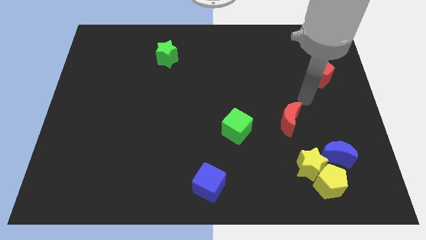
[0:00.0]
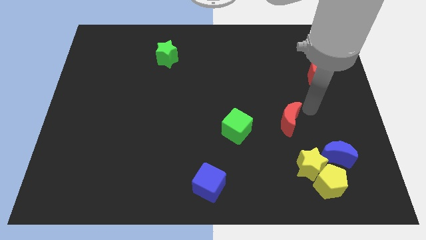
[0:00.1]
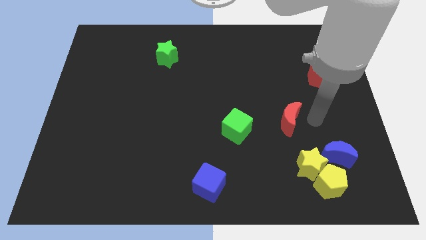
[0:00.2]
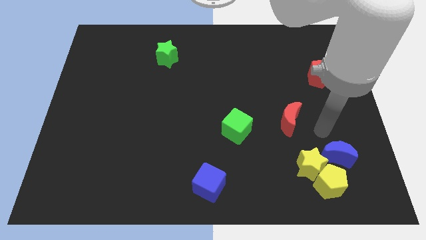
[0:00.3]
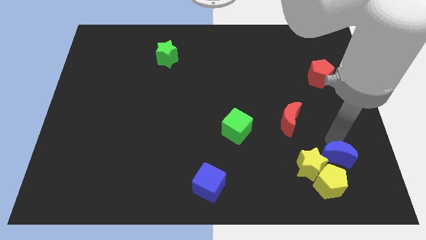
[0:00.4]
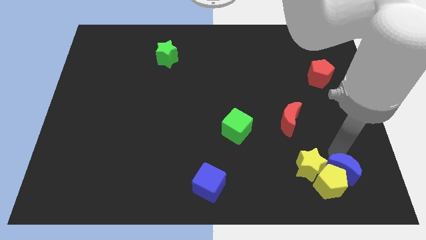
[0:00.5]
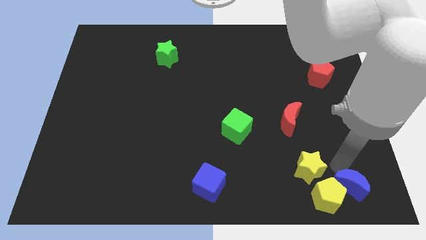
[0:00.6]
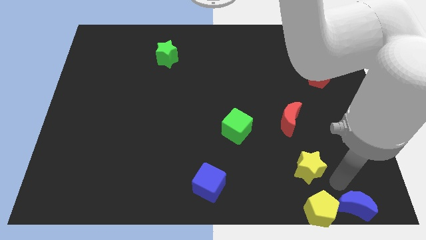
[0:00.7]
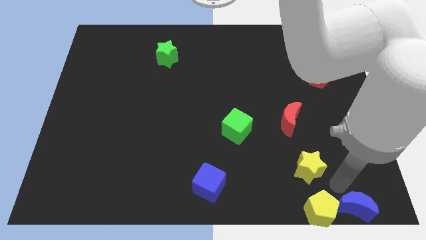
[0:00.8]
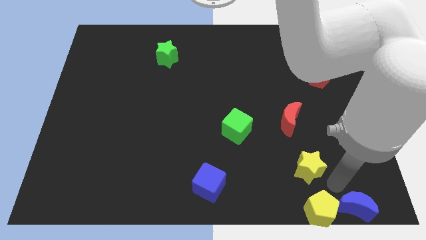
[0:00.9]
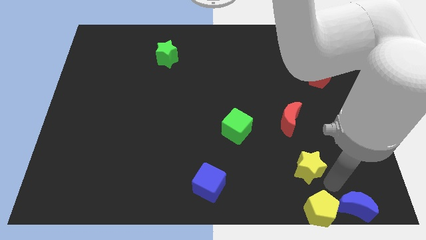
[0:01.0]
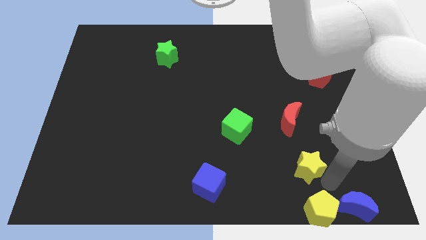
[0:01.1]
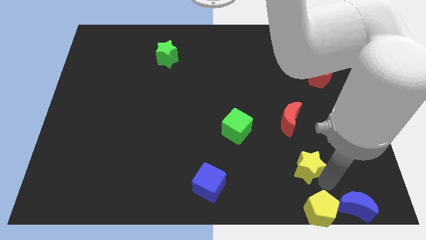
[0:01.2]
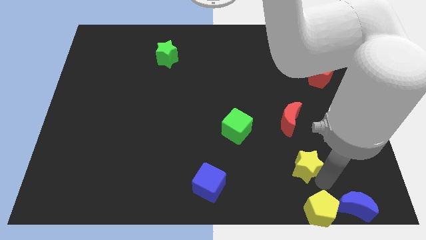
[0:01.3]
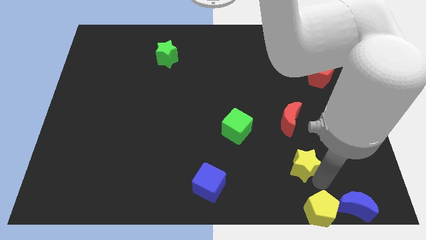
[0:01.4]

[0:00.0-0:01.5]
move the yellow star away from the yellow pentagon and blue moon

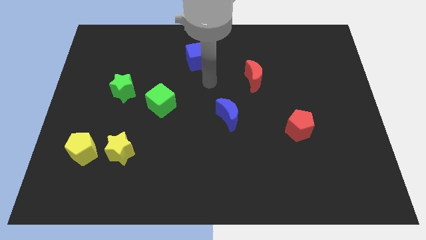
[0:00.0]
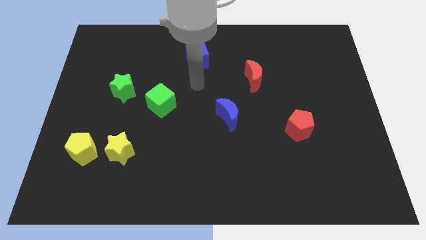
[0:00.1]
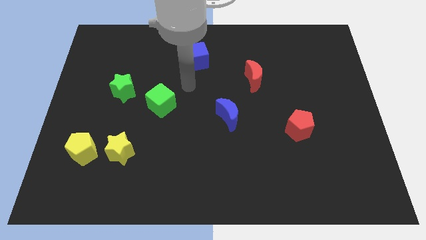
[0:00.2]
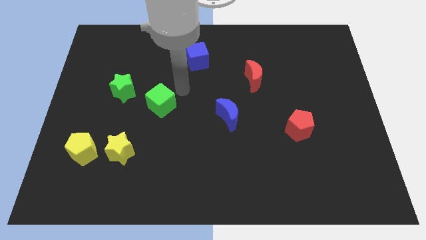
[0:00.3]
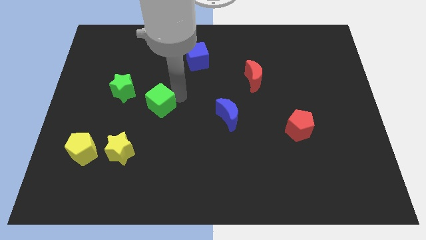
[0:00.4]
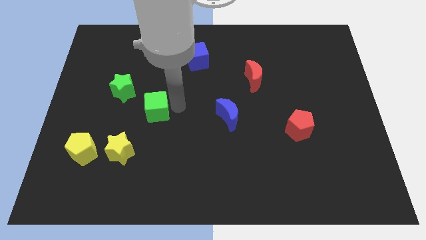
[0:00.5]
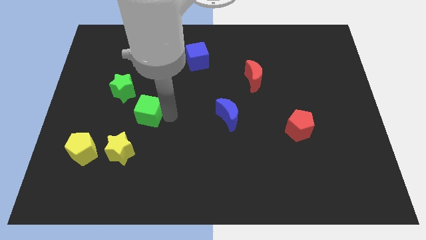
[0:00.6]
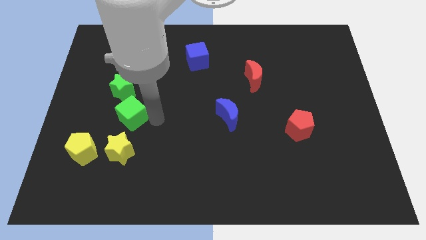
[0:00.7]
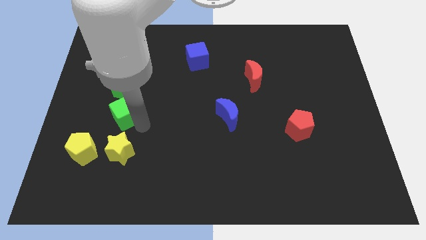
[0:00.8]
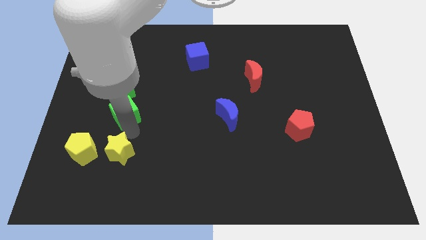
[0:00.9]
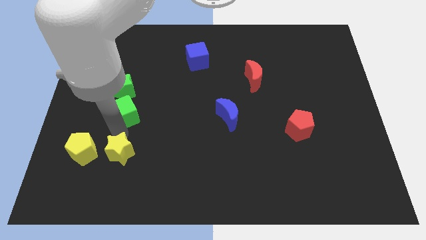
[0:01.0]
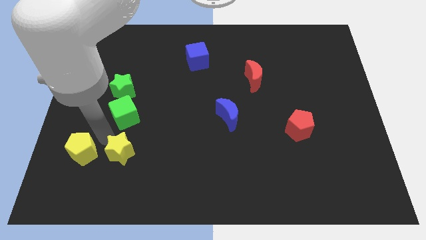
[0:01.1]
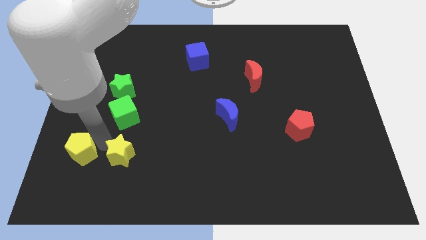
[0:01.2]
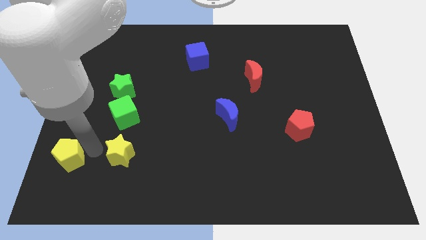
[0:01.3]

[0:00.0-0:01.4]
separate the yellow star from the yellow pentagon

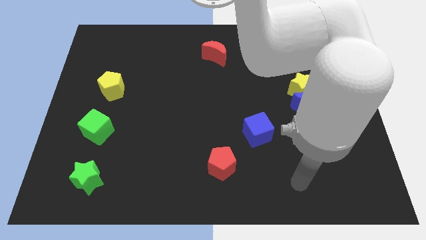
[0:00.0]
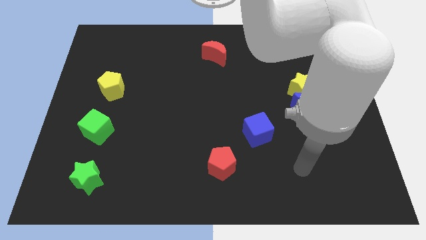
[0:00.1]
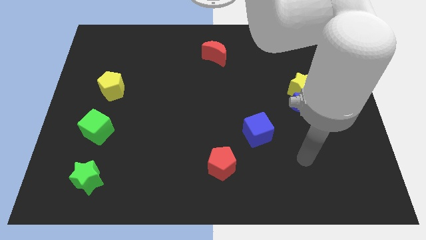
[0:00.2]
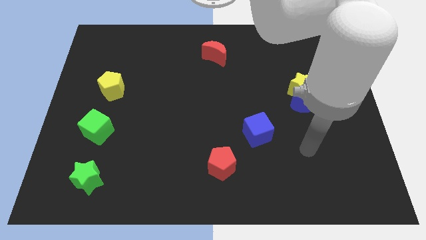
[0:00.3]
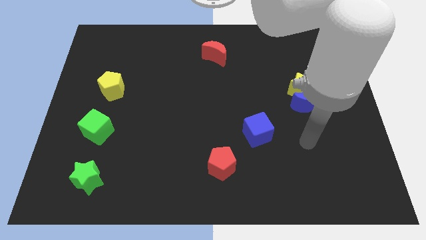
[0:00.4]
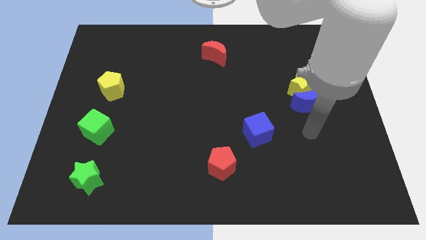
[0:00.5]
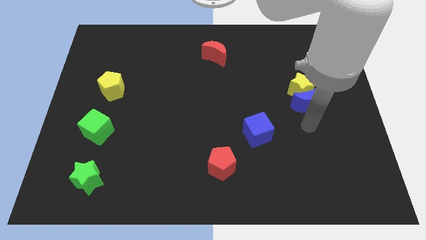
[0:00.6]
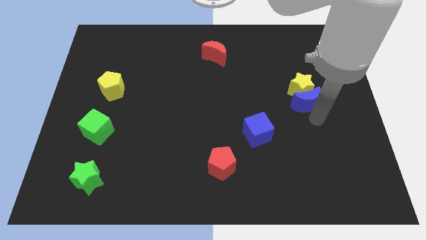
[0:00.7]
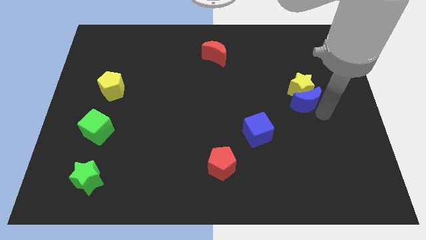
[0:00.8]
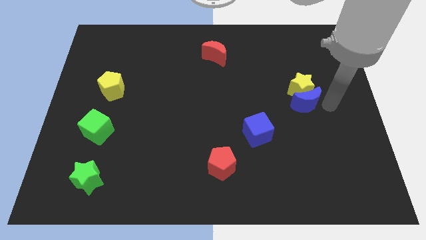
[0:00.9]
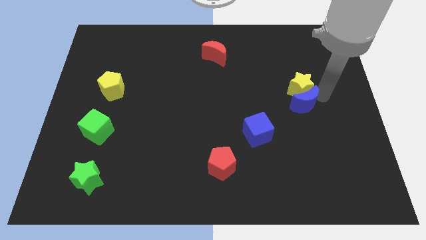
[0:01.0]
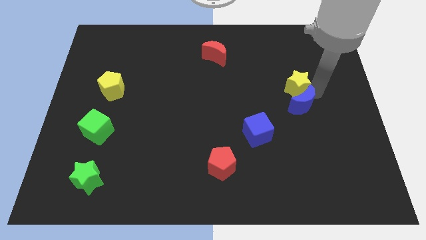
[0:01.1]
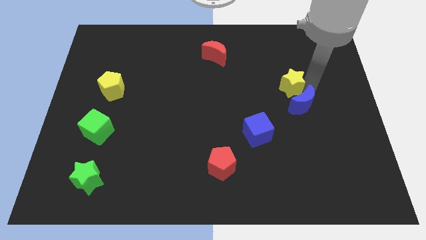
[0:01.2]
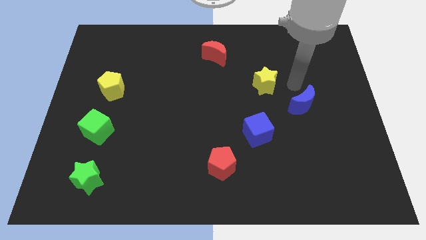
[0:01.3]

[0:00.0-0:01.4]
separate the blue moon from the yellow star

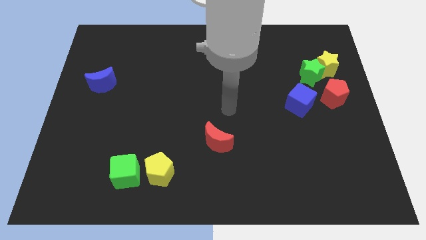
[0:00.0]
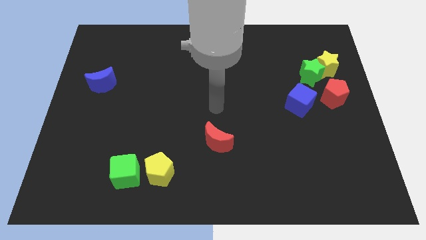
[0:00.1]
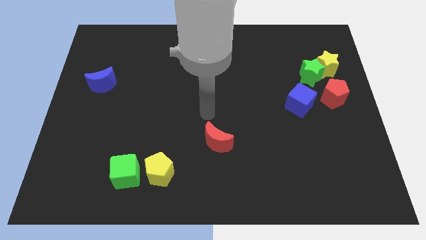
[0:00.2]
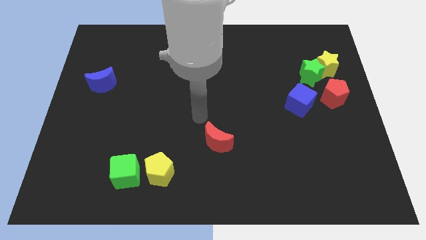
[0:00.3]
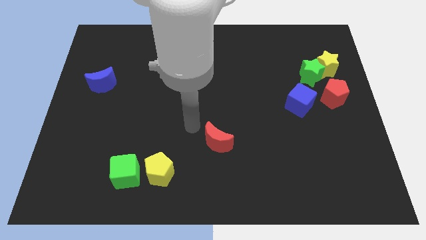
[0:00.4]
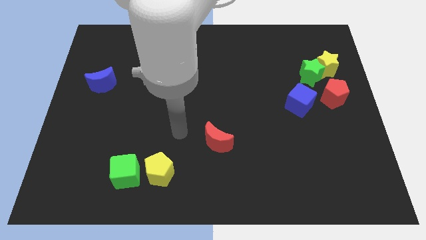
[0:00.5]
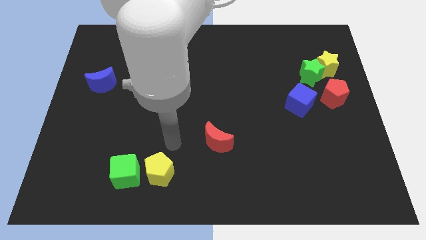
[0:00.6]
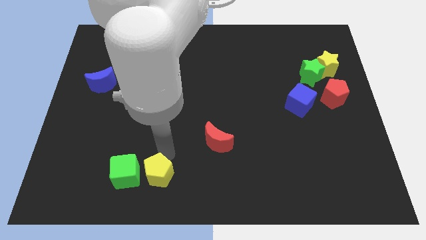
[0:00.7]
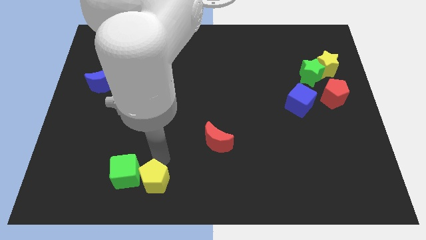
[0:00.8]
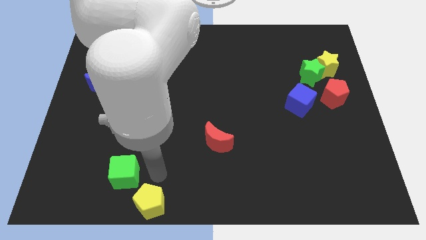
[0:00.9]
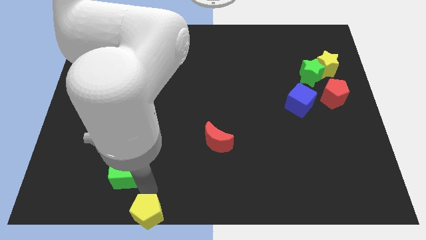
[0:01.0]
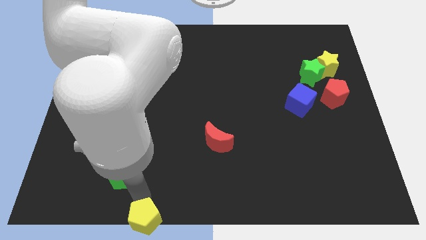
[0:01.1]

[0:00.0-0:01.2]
move the green cube away from the yellow pentagon

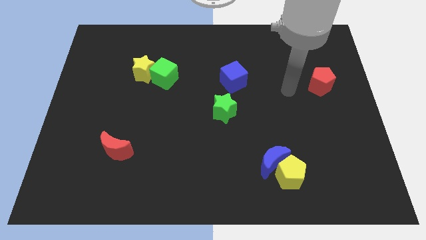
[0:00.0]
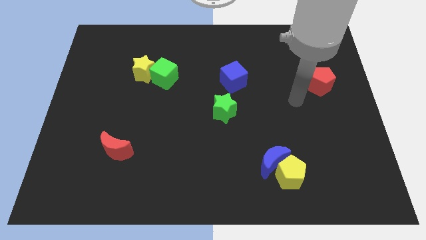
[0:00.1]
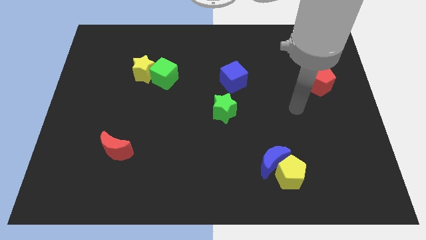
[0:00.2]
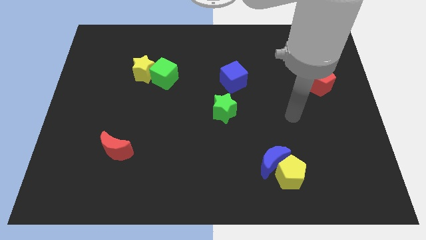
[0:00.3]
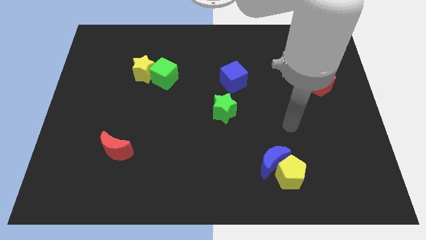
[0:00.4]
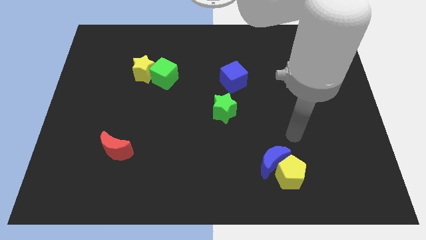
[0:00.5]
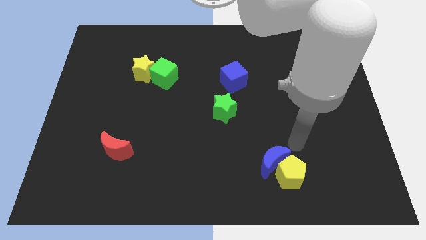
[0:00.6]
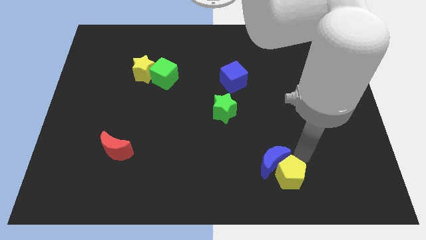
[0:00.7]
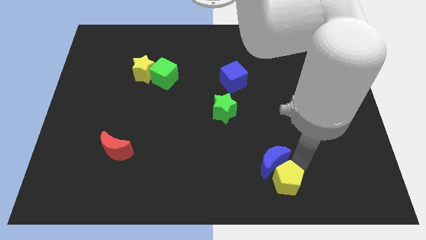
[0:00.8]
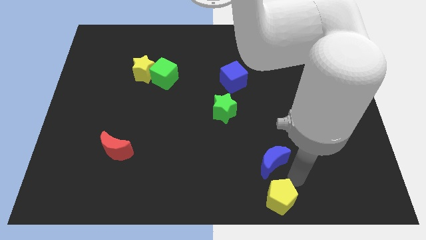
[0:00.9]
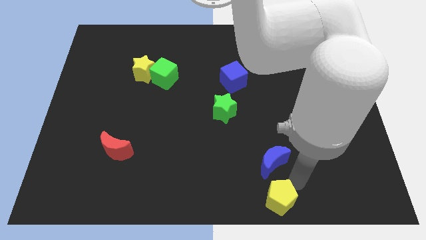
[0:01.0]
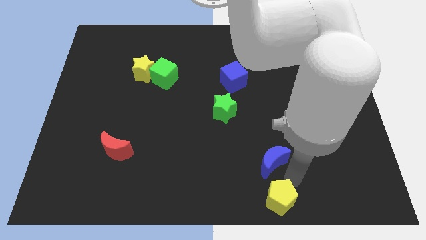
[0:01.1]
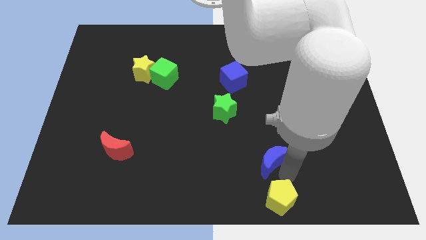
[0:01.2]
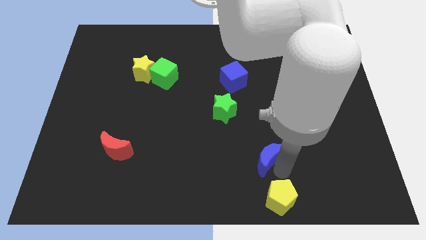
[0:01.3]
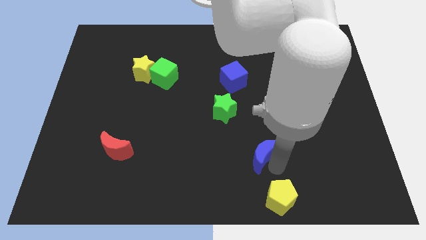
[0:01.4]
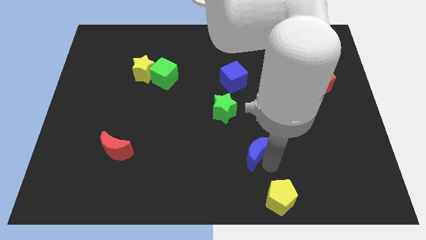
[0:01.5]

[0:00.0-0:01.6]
move the blue moon away from the yellow pentagon

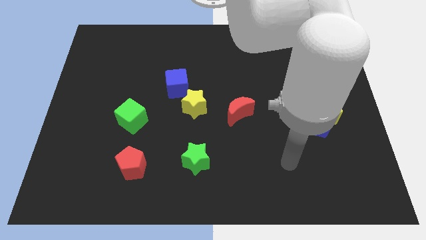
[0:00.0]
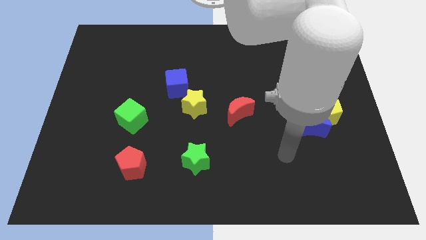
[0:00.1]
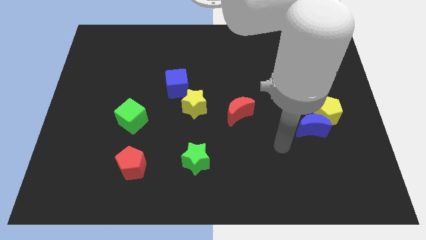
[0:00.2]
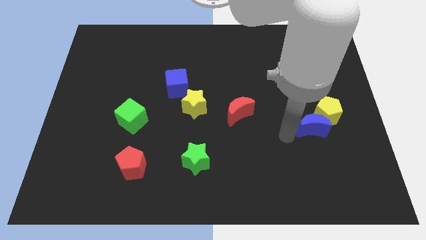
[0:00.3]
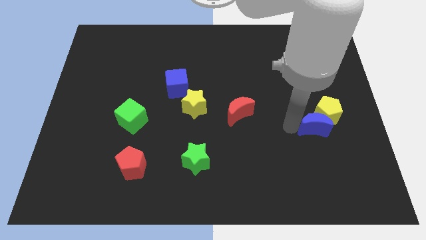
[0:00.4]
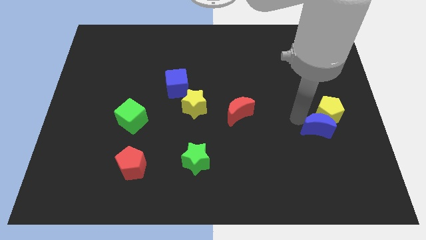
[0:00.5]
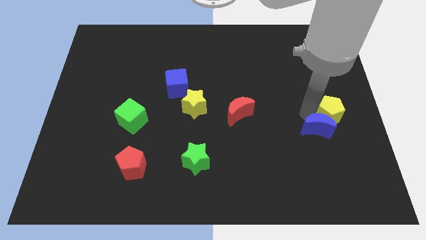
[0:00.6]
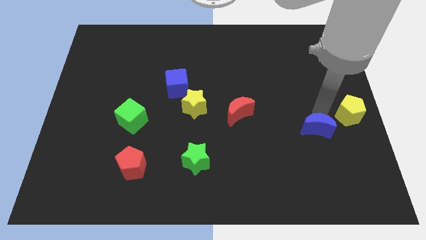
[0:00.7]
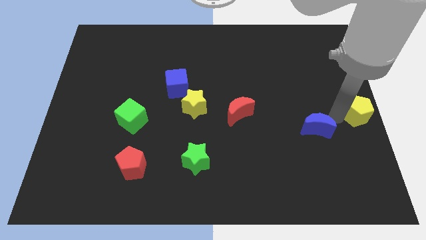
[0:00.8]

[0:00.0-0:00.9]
separate the blue moon from the yellow pentagon

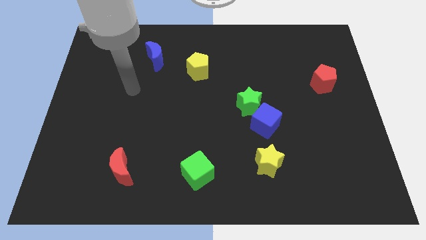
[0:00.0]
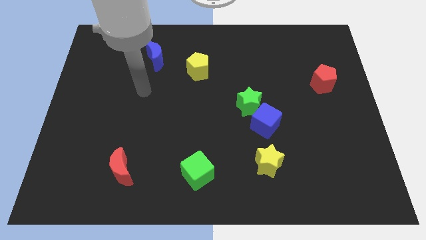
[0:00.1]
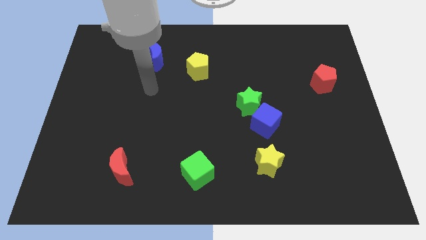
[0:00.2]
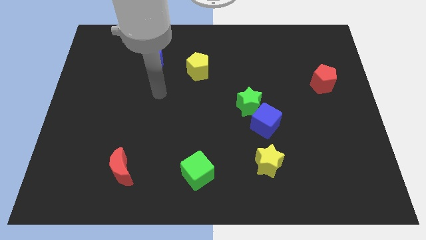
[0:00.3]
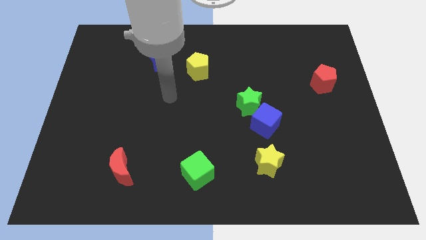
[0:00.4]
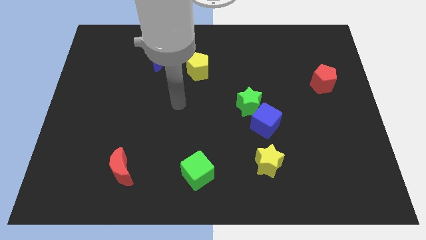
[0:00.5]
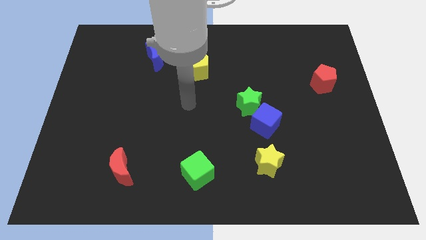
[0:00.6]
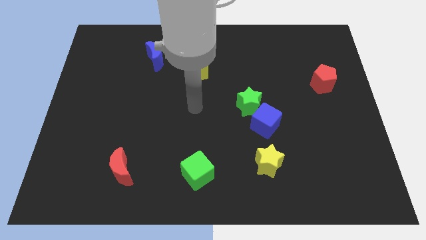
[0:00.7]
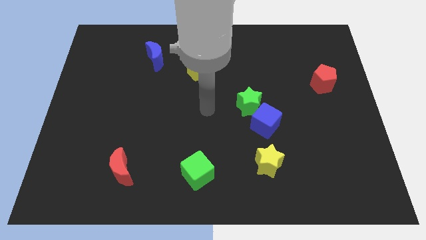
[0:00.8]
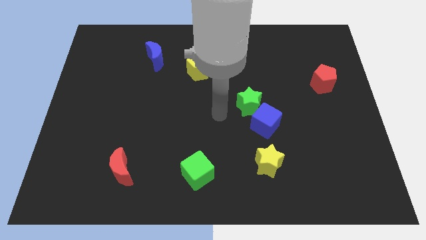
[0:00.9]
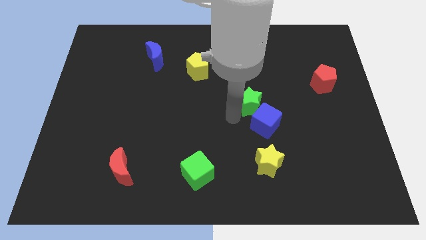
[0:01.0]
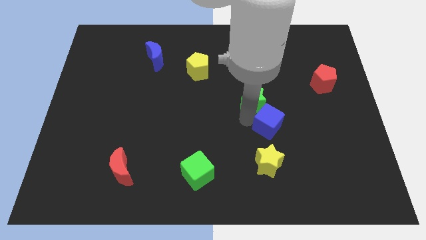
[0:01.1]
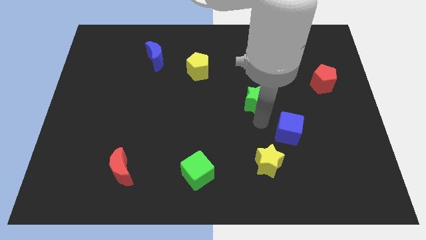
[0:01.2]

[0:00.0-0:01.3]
separate the green star from the blue cube

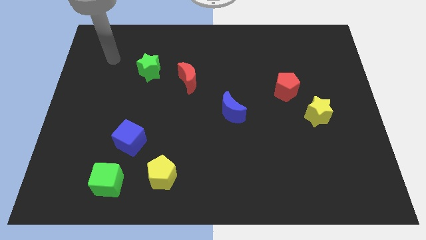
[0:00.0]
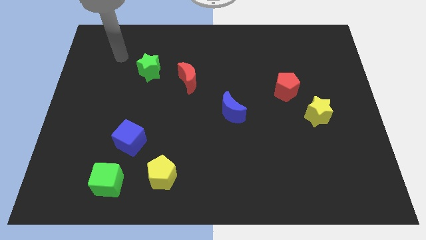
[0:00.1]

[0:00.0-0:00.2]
pull the red pentagon apart from the yellow star
